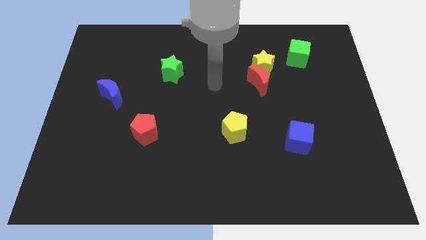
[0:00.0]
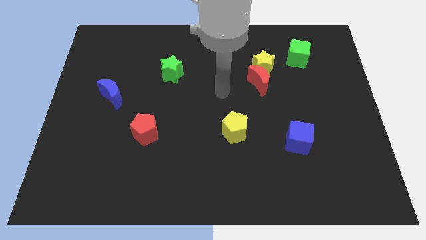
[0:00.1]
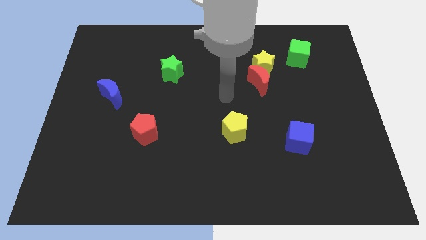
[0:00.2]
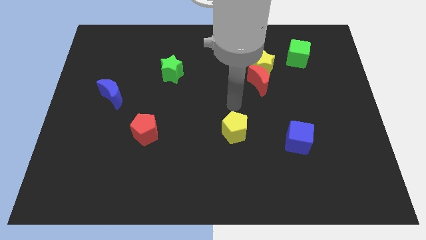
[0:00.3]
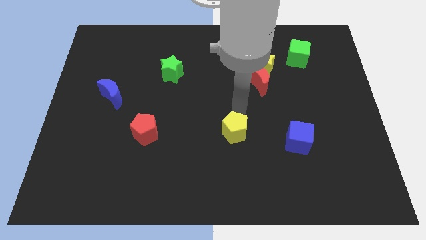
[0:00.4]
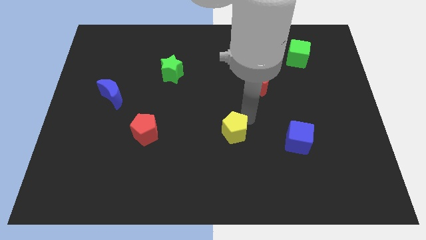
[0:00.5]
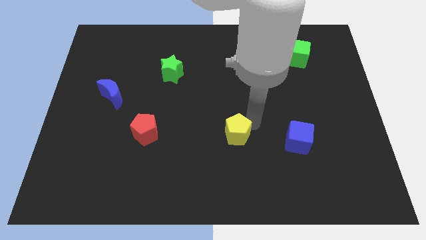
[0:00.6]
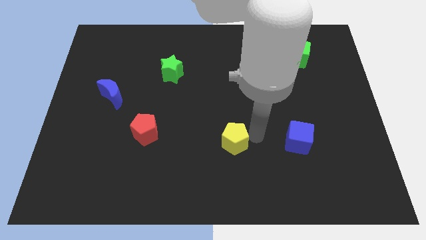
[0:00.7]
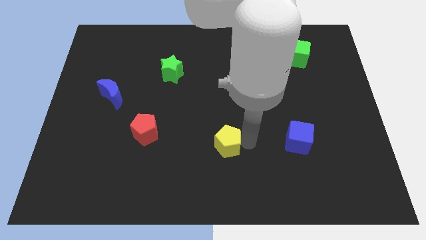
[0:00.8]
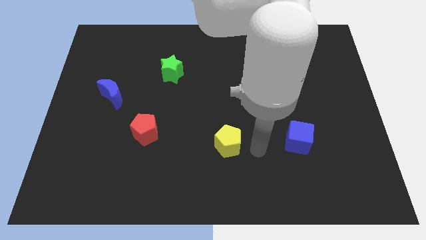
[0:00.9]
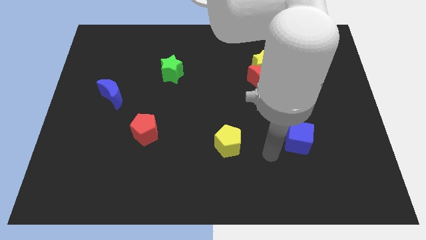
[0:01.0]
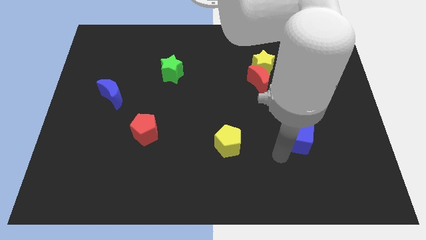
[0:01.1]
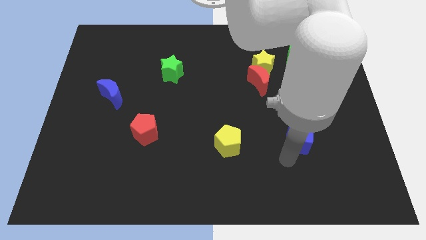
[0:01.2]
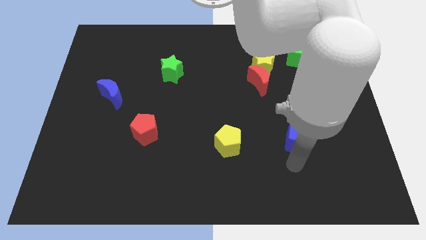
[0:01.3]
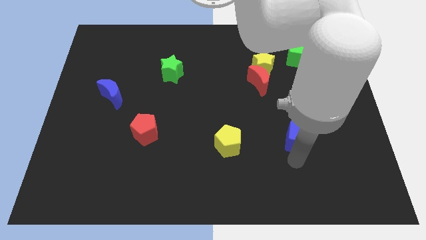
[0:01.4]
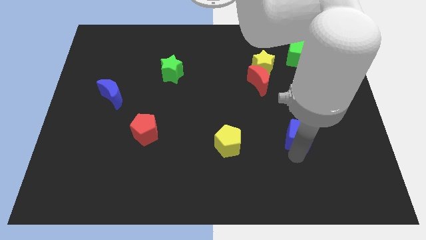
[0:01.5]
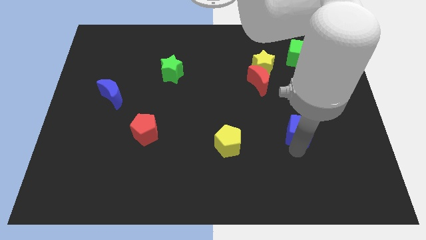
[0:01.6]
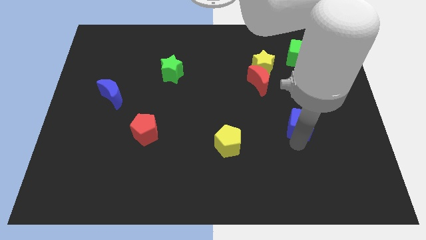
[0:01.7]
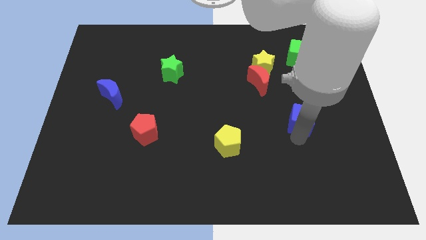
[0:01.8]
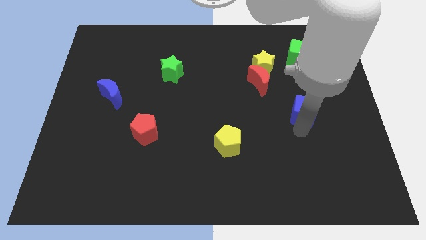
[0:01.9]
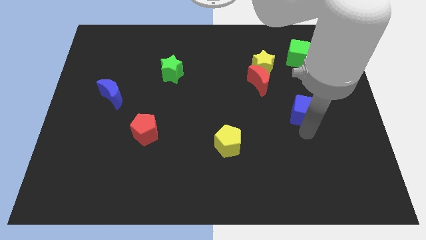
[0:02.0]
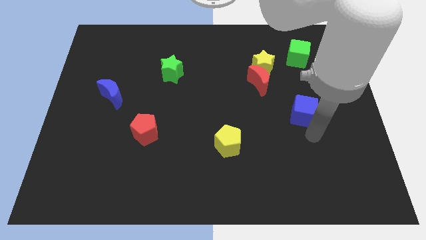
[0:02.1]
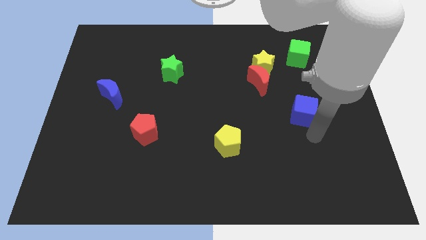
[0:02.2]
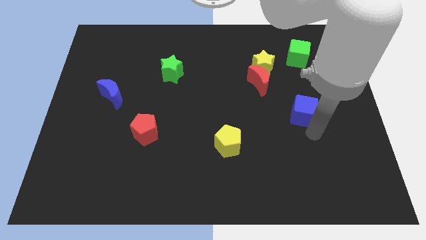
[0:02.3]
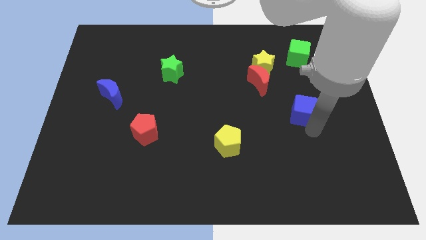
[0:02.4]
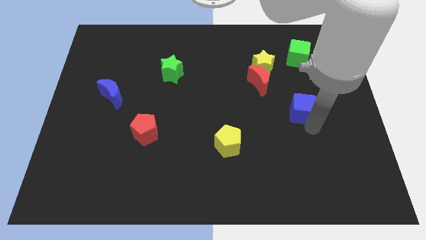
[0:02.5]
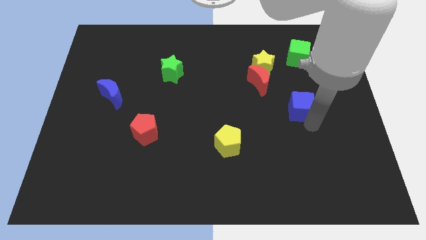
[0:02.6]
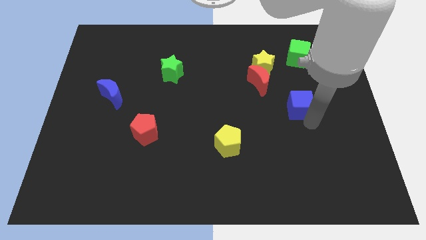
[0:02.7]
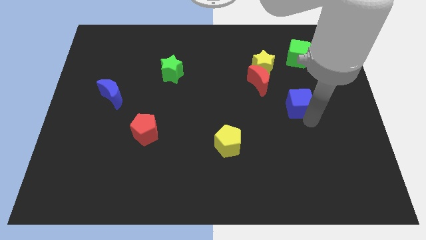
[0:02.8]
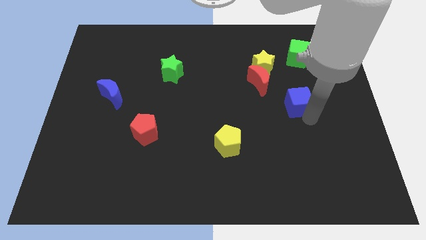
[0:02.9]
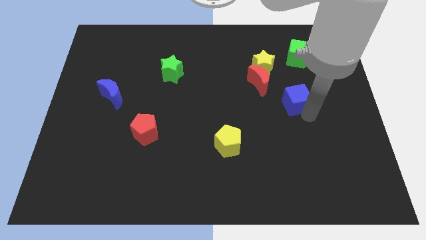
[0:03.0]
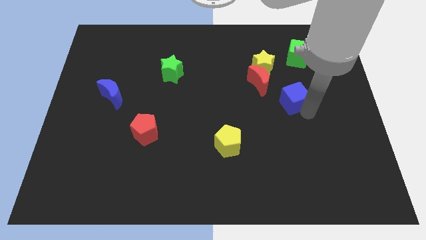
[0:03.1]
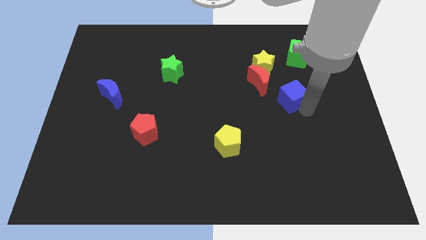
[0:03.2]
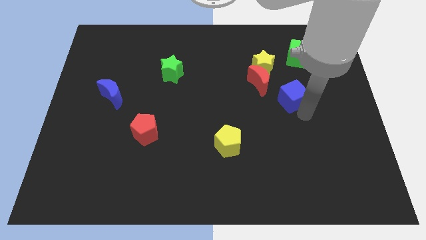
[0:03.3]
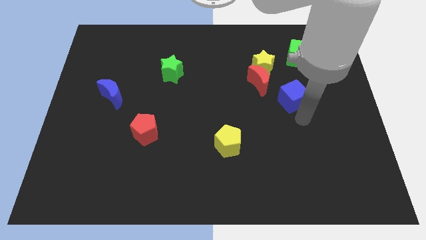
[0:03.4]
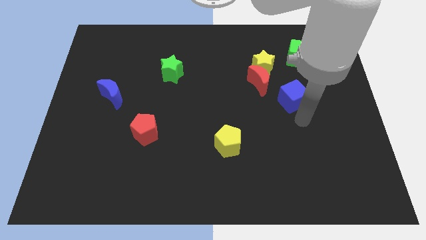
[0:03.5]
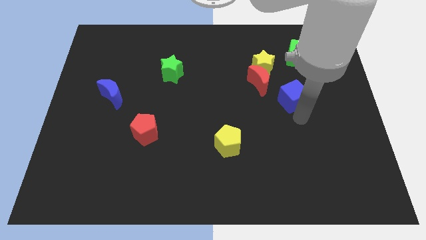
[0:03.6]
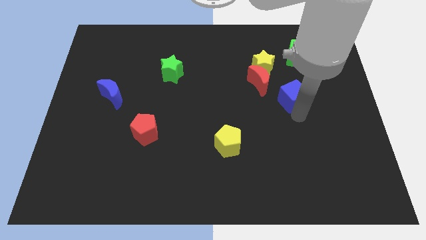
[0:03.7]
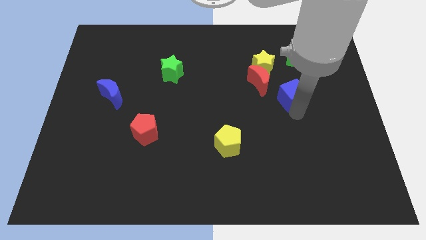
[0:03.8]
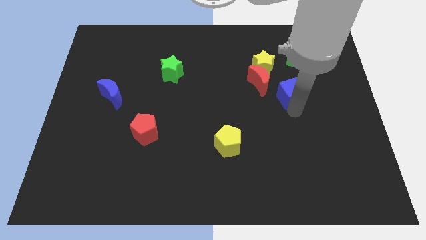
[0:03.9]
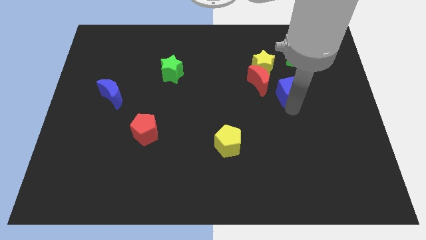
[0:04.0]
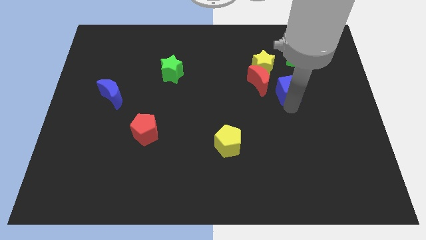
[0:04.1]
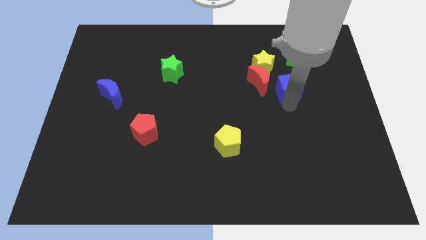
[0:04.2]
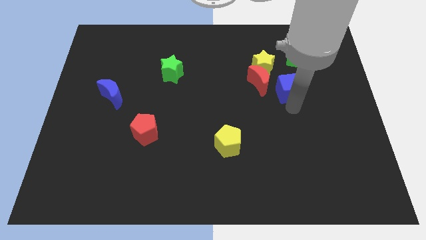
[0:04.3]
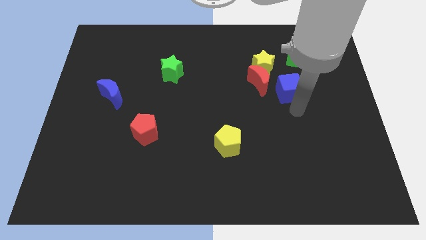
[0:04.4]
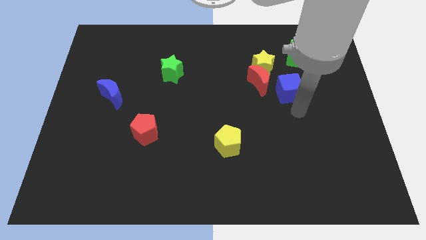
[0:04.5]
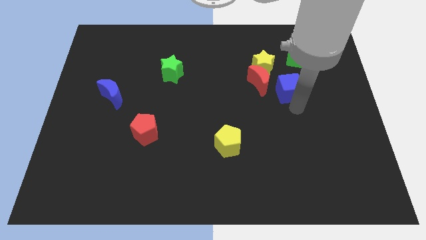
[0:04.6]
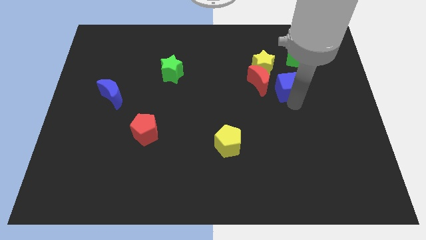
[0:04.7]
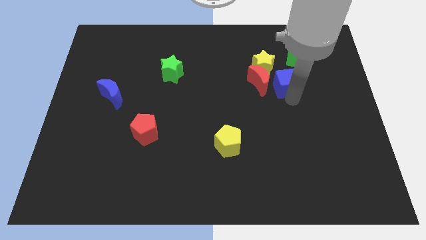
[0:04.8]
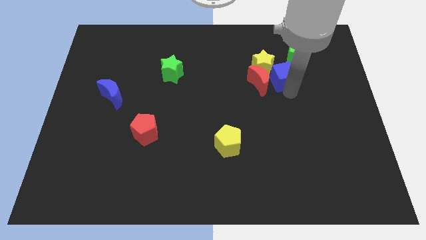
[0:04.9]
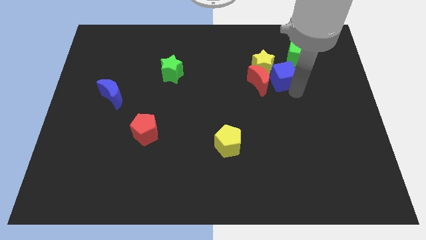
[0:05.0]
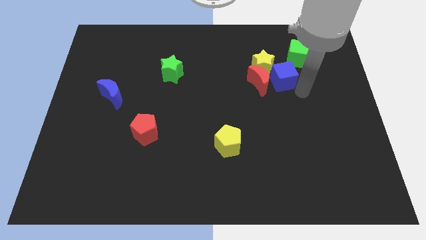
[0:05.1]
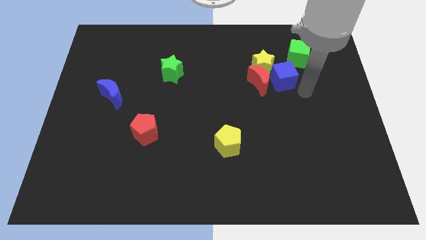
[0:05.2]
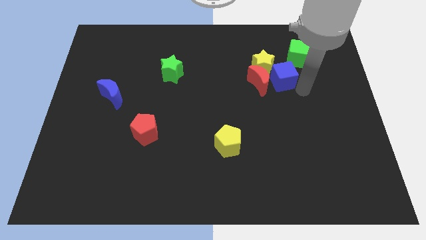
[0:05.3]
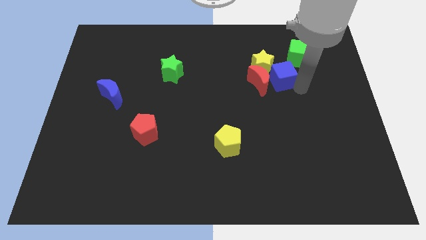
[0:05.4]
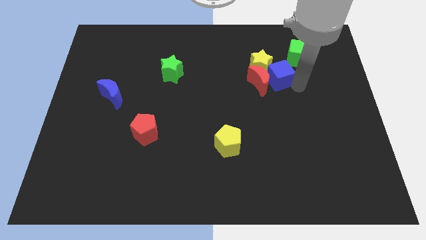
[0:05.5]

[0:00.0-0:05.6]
put the blue cube close to the yellow star
